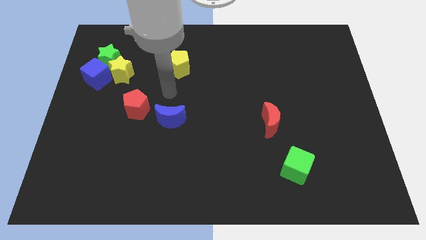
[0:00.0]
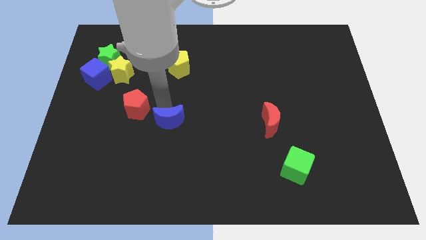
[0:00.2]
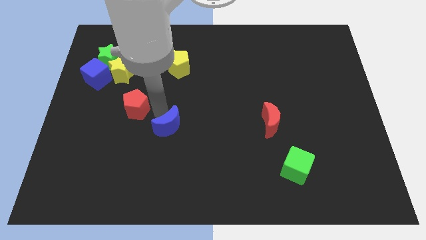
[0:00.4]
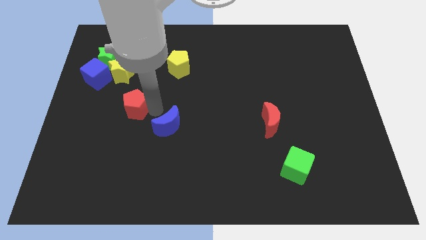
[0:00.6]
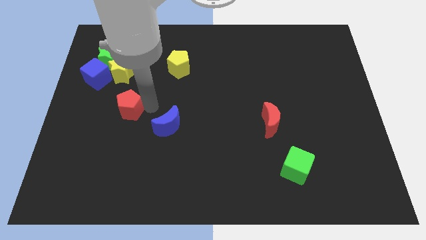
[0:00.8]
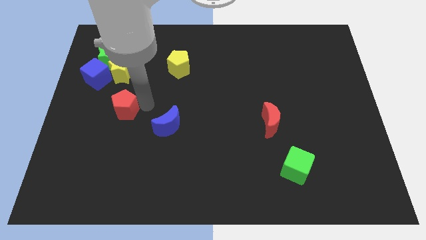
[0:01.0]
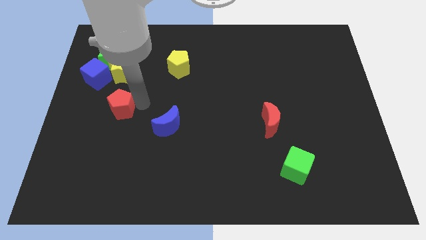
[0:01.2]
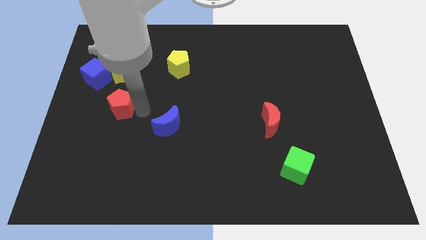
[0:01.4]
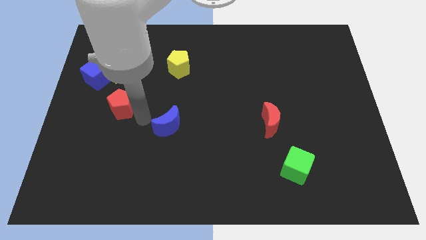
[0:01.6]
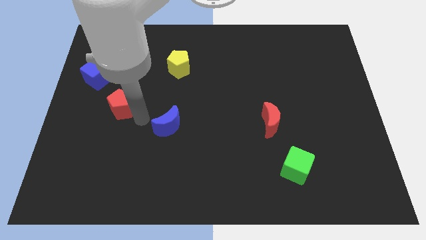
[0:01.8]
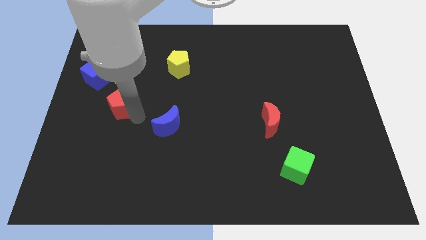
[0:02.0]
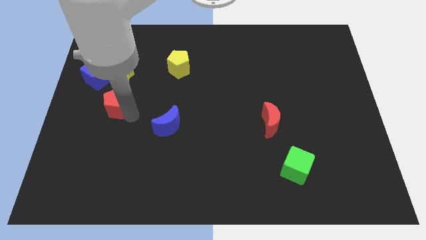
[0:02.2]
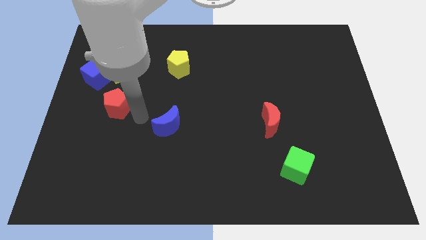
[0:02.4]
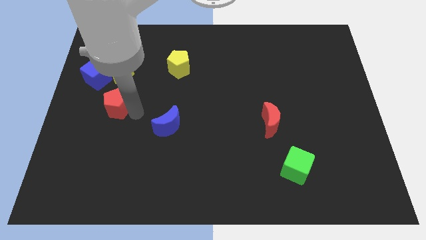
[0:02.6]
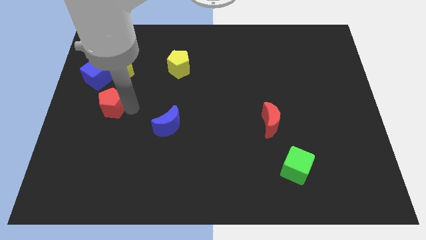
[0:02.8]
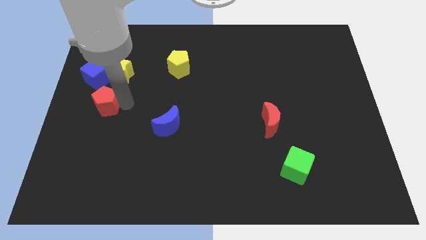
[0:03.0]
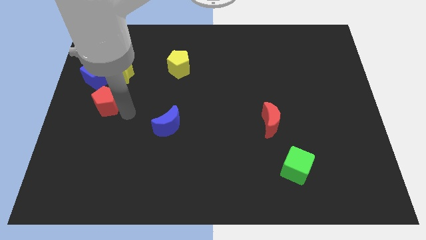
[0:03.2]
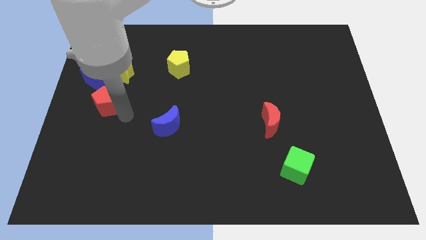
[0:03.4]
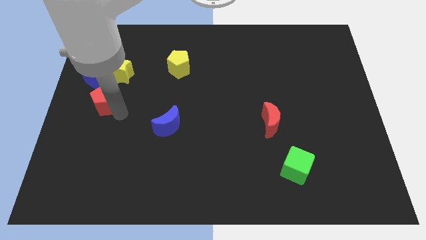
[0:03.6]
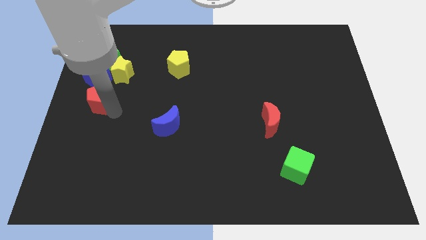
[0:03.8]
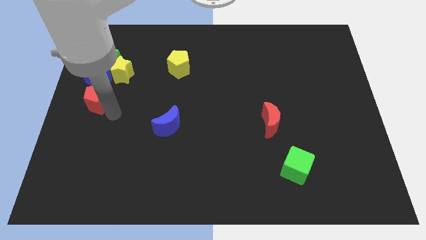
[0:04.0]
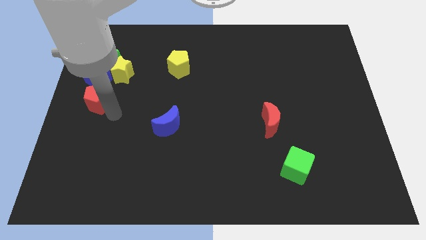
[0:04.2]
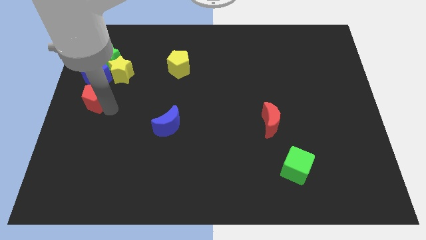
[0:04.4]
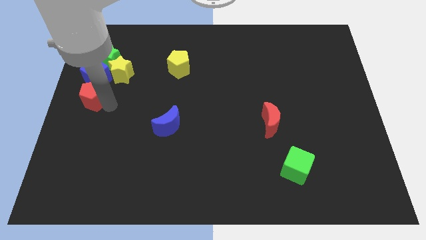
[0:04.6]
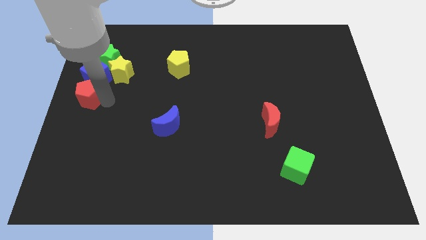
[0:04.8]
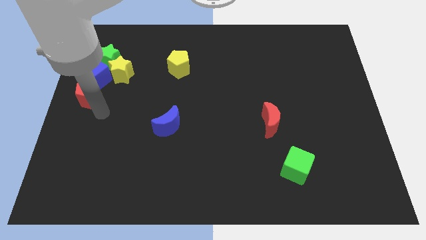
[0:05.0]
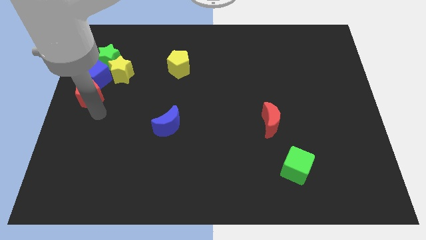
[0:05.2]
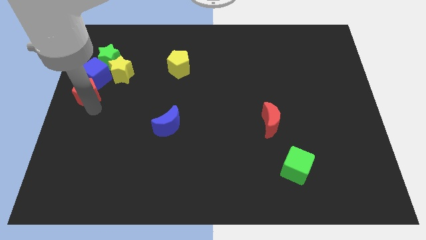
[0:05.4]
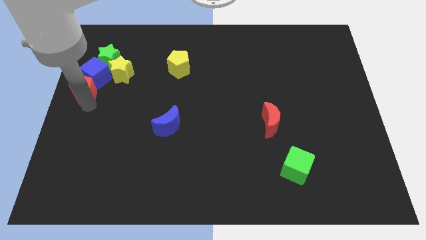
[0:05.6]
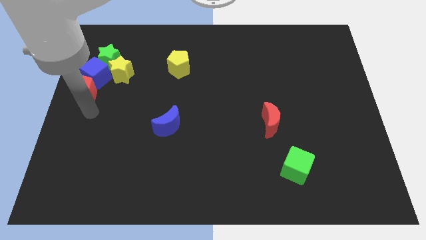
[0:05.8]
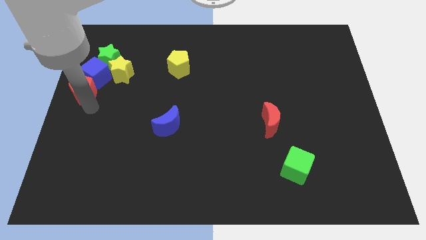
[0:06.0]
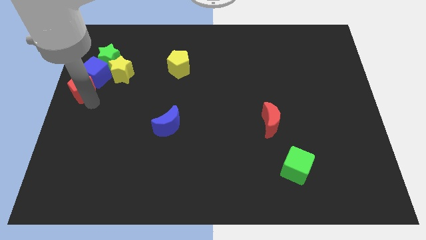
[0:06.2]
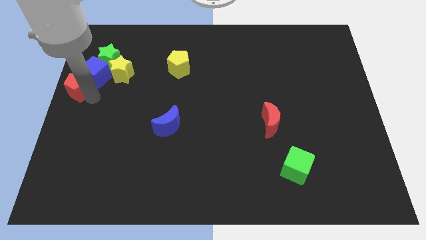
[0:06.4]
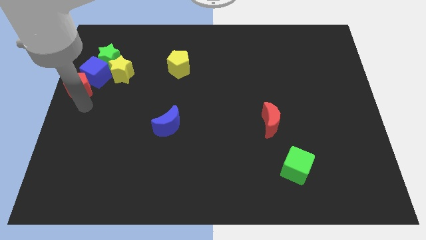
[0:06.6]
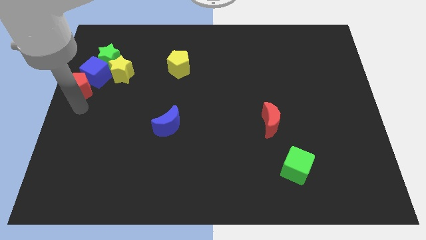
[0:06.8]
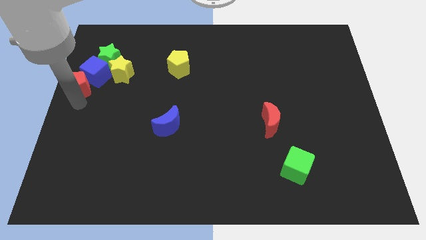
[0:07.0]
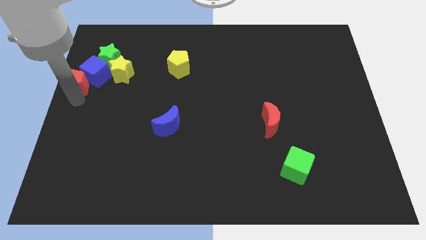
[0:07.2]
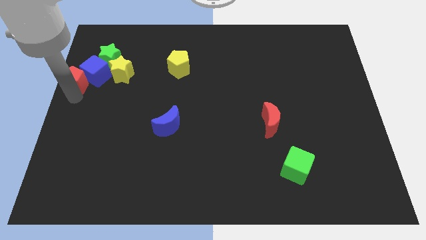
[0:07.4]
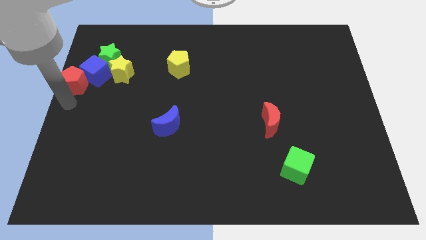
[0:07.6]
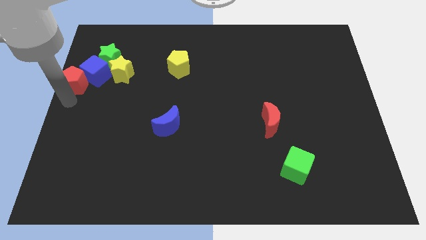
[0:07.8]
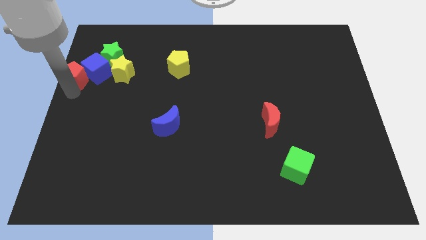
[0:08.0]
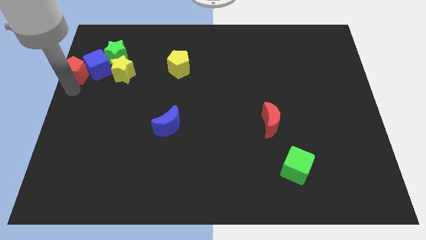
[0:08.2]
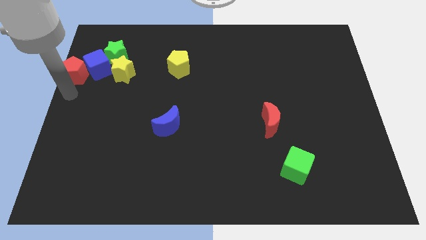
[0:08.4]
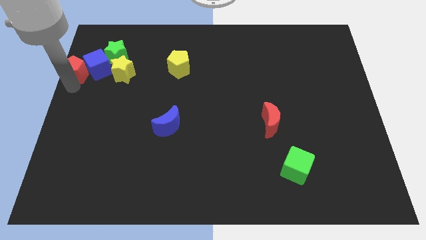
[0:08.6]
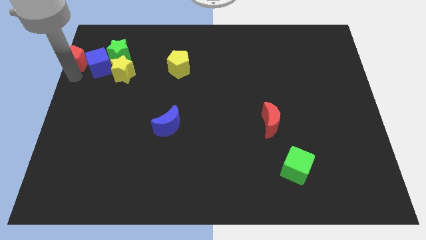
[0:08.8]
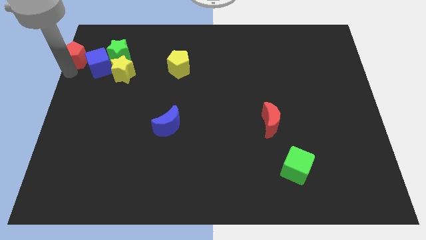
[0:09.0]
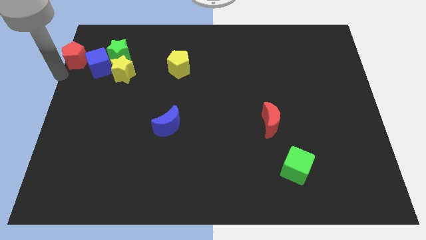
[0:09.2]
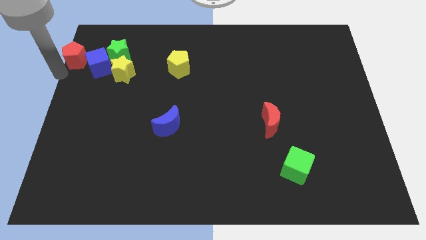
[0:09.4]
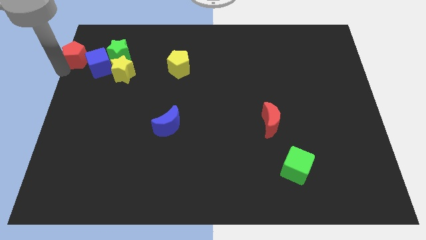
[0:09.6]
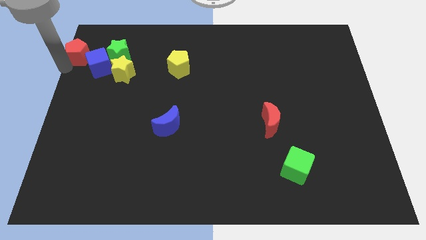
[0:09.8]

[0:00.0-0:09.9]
put the red pentagon to the upper left corner

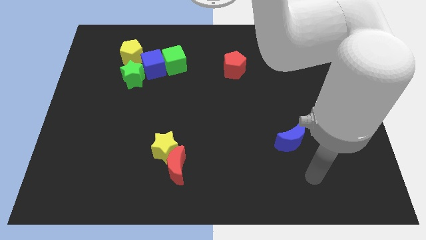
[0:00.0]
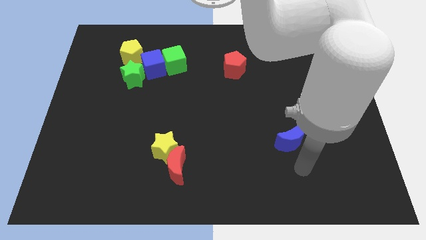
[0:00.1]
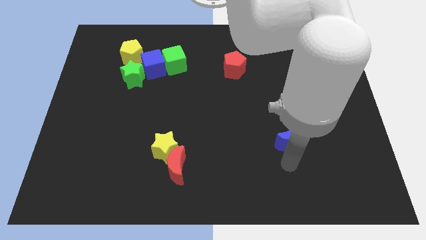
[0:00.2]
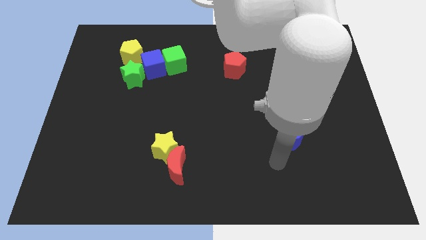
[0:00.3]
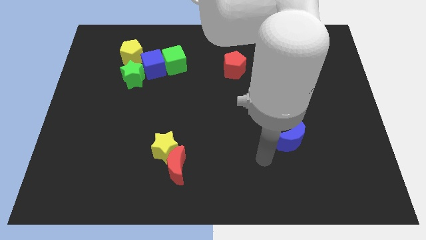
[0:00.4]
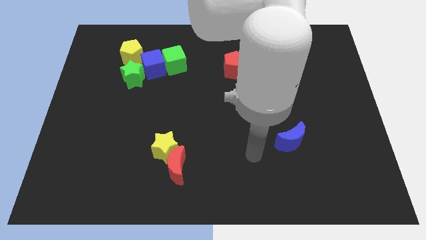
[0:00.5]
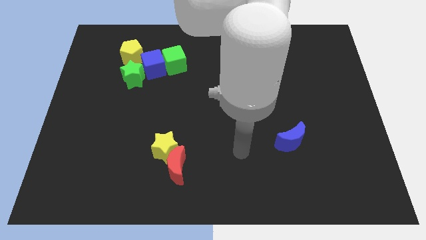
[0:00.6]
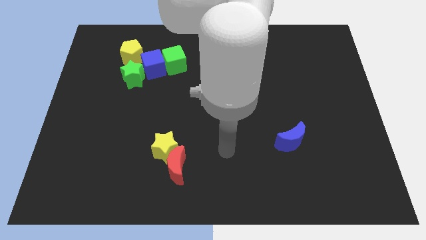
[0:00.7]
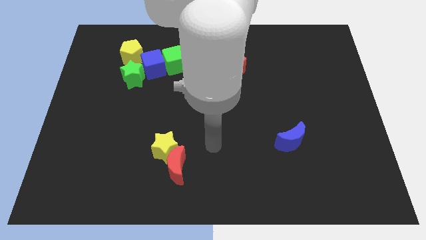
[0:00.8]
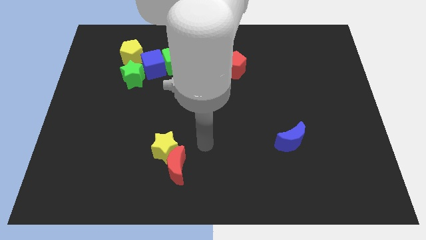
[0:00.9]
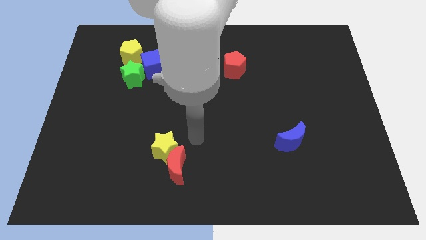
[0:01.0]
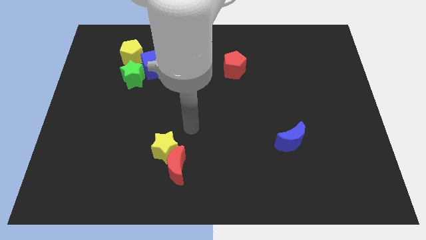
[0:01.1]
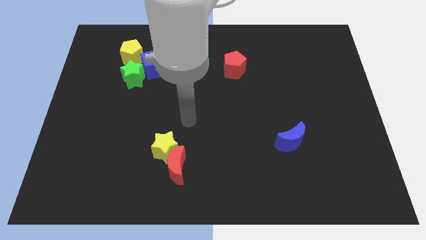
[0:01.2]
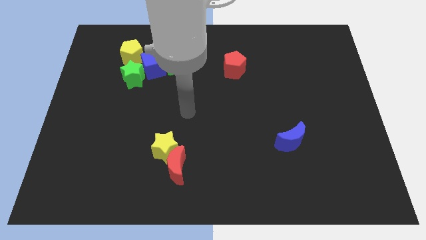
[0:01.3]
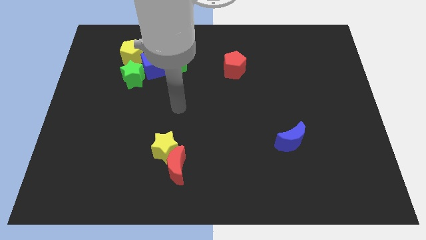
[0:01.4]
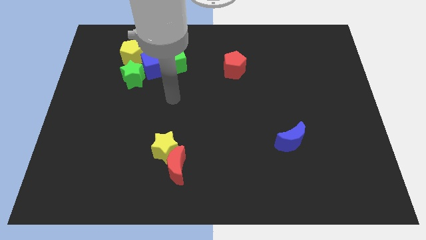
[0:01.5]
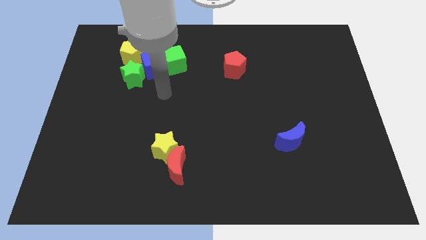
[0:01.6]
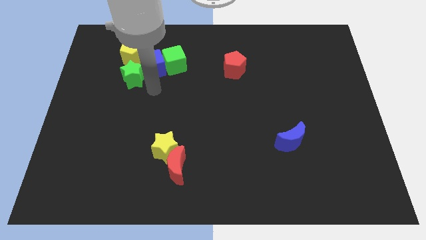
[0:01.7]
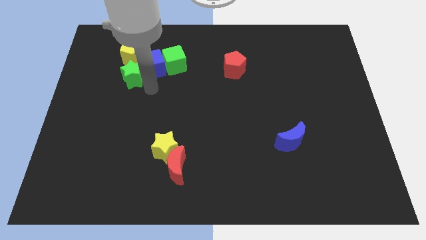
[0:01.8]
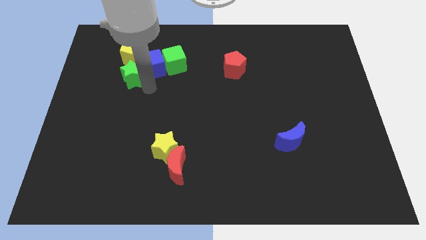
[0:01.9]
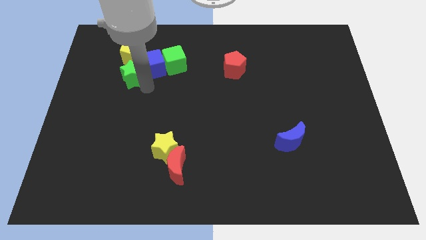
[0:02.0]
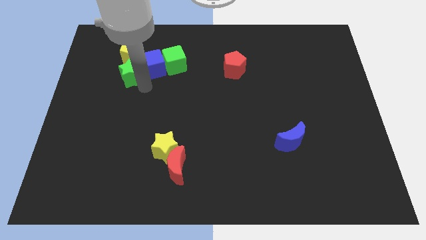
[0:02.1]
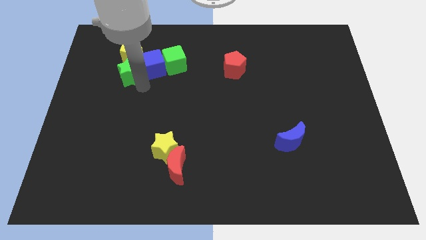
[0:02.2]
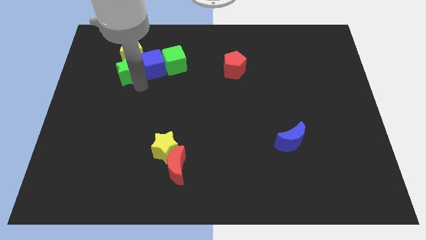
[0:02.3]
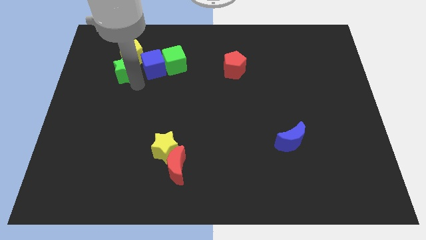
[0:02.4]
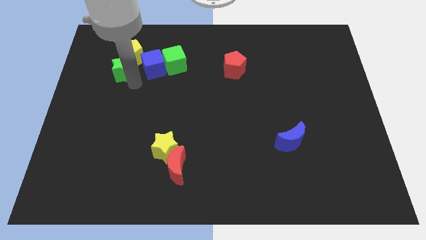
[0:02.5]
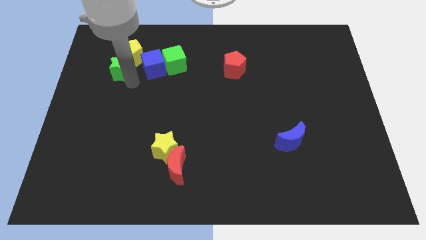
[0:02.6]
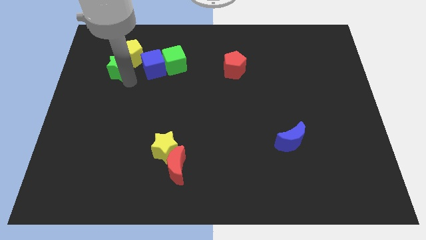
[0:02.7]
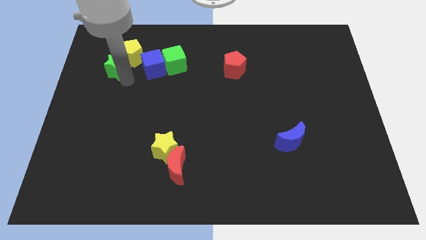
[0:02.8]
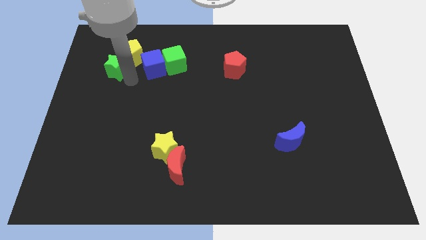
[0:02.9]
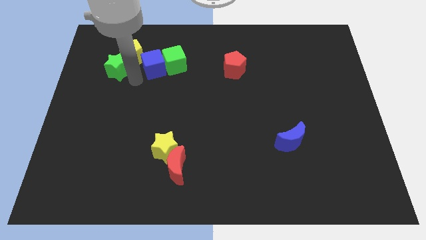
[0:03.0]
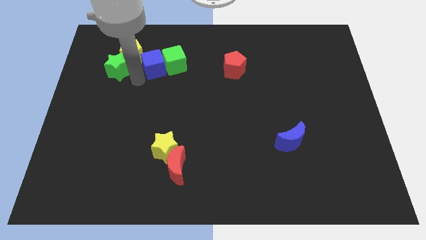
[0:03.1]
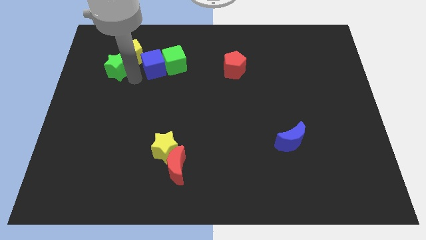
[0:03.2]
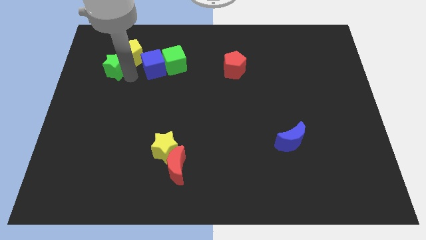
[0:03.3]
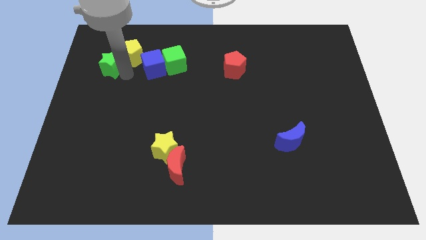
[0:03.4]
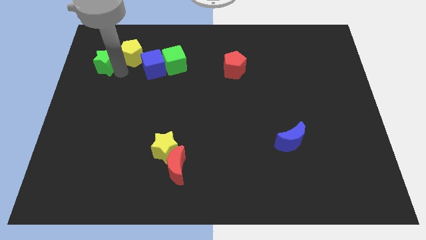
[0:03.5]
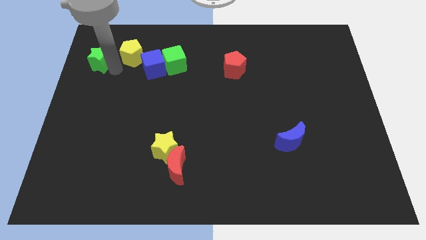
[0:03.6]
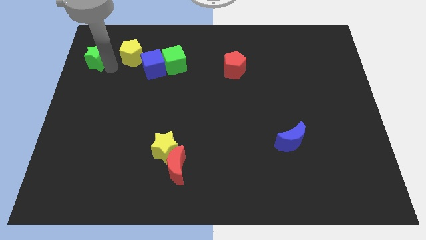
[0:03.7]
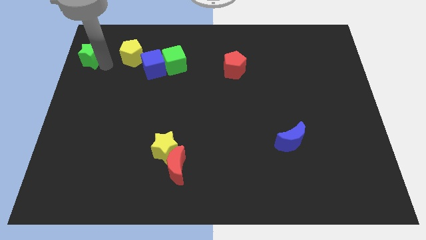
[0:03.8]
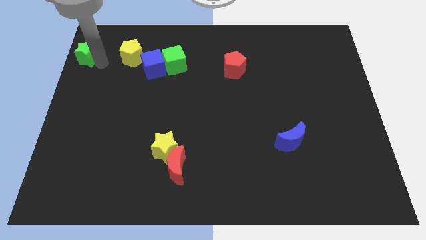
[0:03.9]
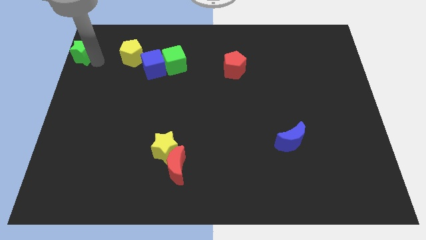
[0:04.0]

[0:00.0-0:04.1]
slide the green star to the upper left corner
